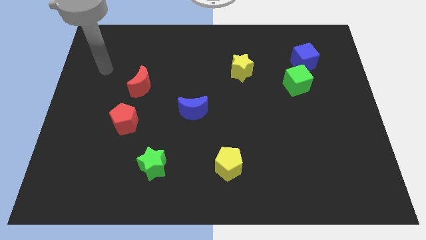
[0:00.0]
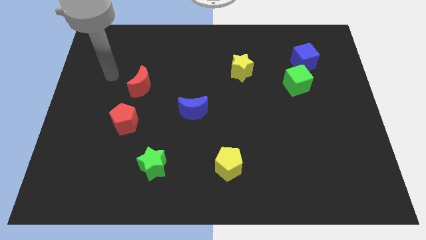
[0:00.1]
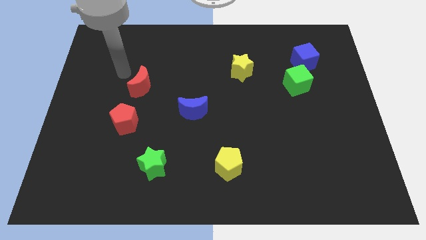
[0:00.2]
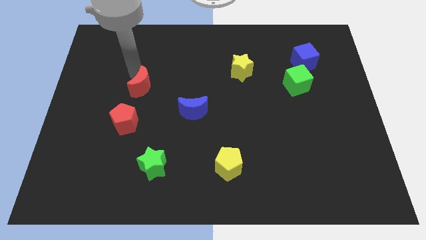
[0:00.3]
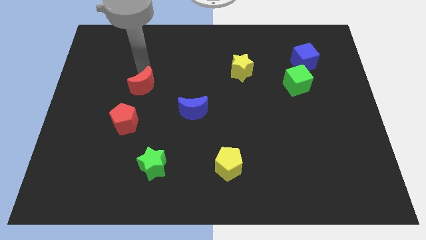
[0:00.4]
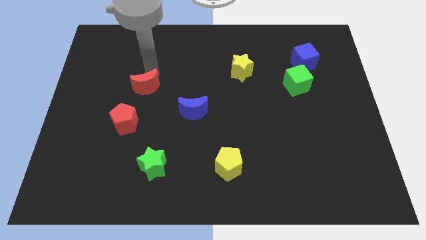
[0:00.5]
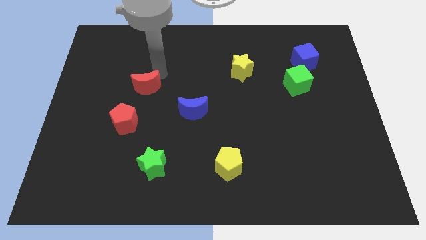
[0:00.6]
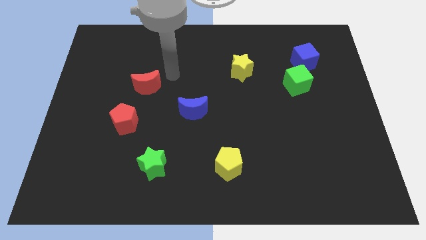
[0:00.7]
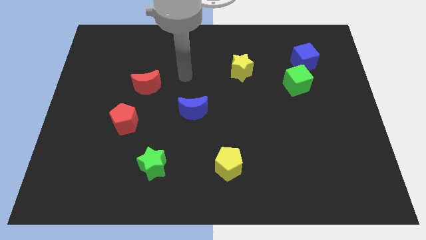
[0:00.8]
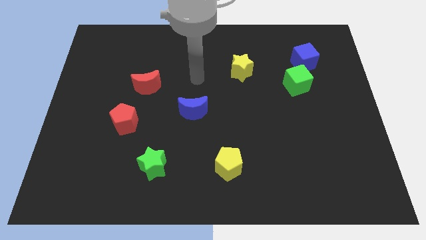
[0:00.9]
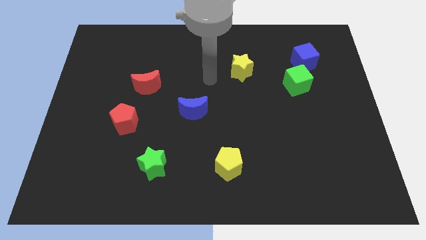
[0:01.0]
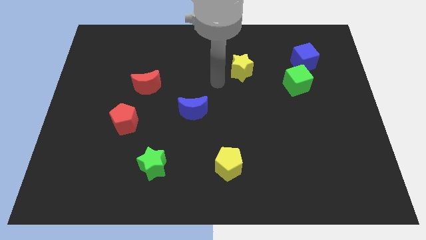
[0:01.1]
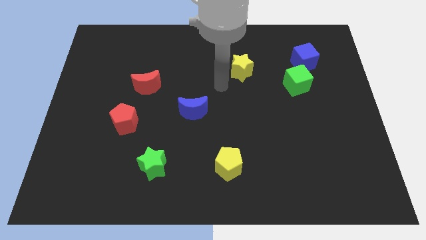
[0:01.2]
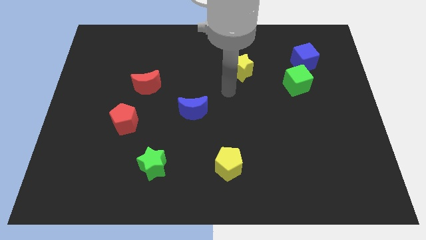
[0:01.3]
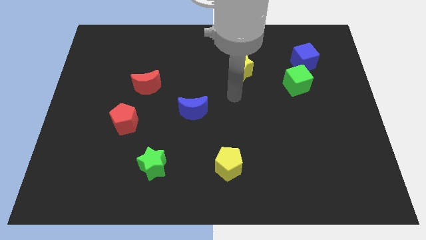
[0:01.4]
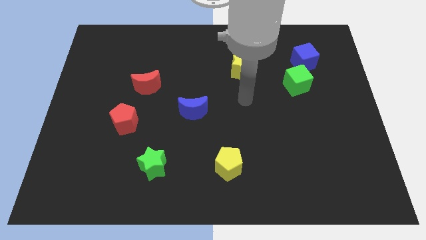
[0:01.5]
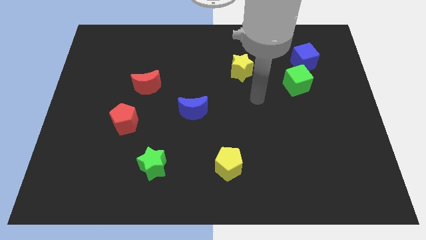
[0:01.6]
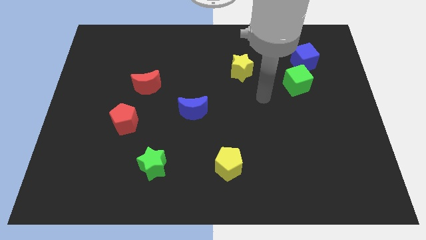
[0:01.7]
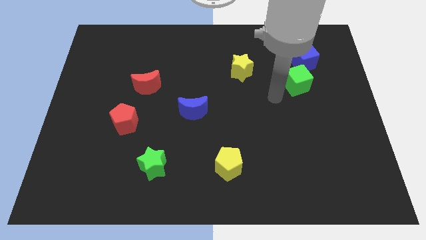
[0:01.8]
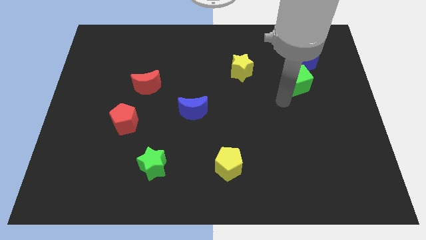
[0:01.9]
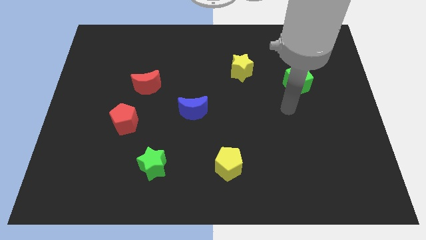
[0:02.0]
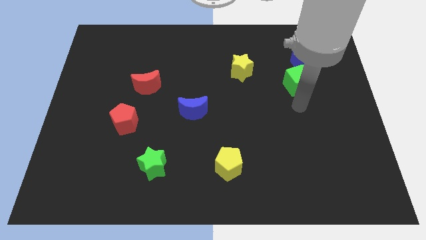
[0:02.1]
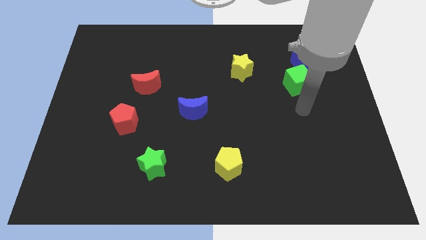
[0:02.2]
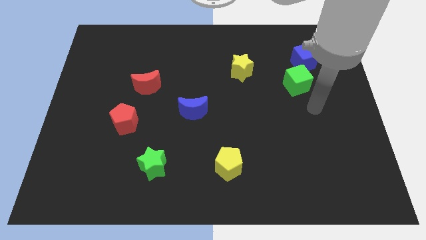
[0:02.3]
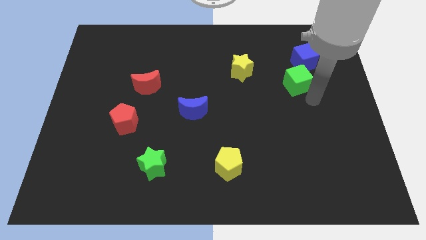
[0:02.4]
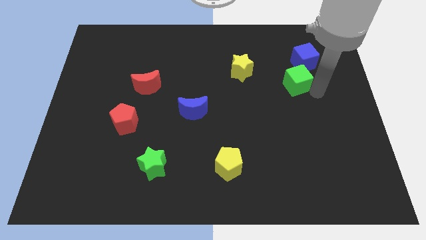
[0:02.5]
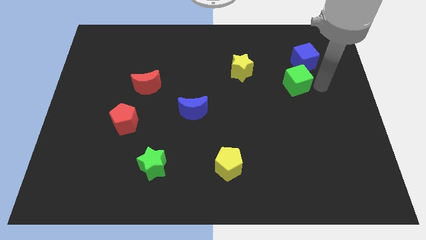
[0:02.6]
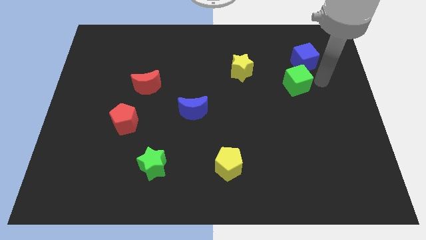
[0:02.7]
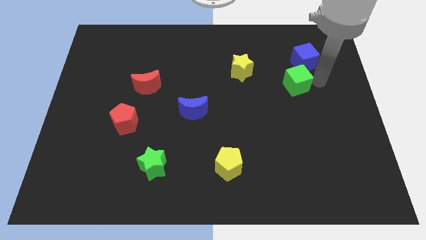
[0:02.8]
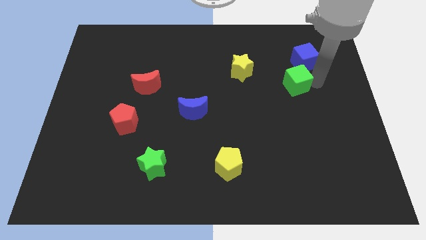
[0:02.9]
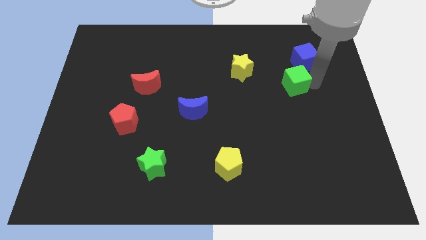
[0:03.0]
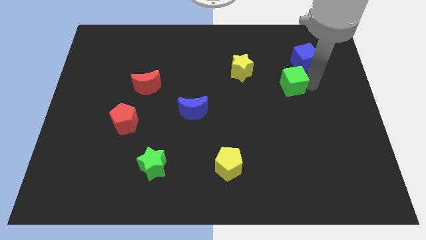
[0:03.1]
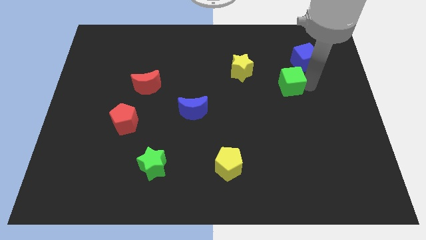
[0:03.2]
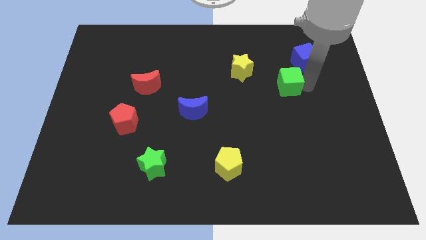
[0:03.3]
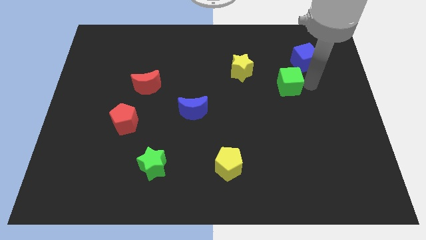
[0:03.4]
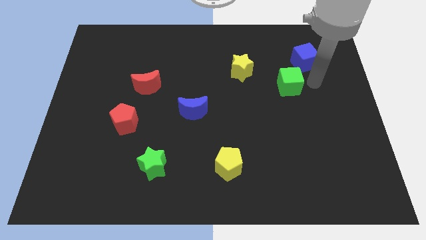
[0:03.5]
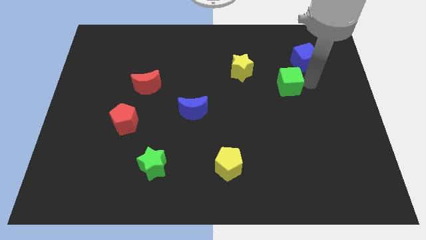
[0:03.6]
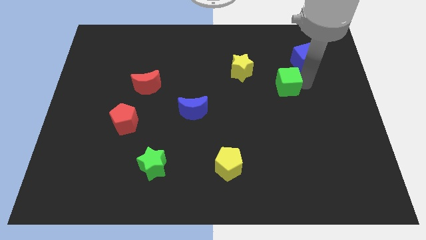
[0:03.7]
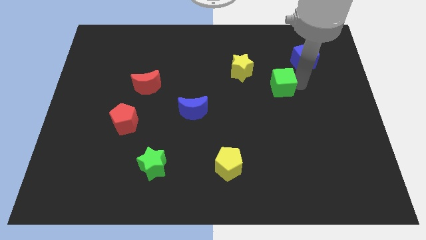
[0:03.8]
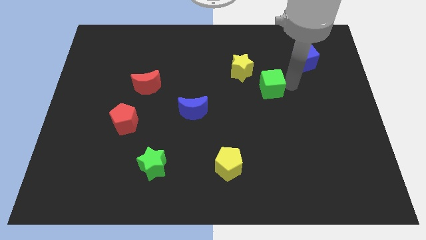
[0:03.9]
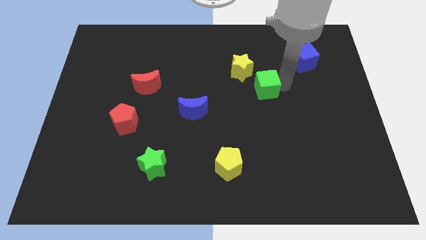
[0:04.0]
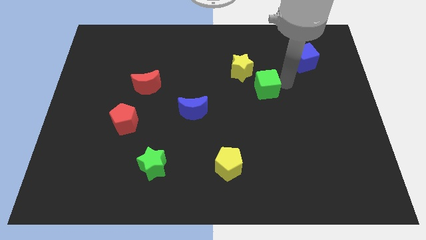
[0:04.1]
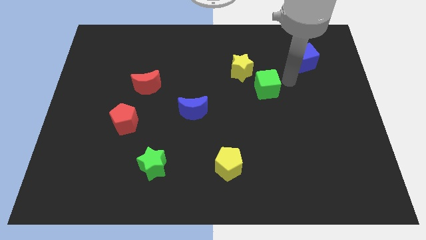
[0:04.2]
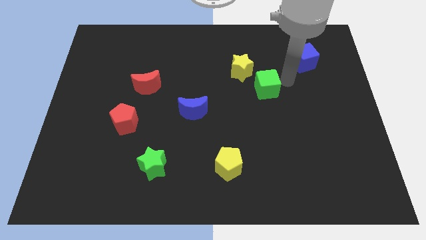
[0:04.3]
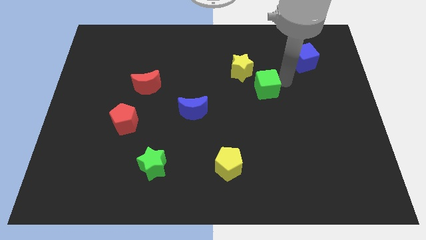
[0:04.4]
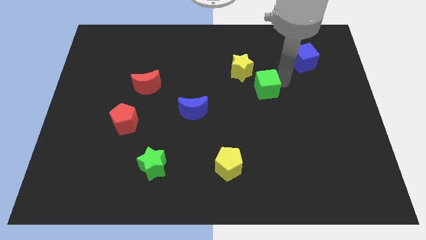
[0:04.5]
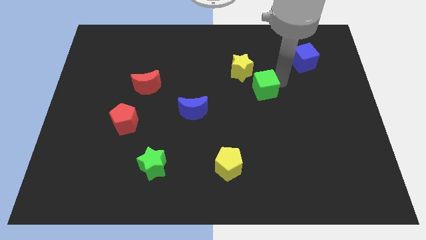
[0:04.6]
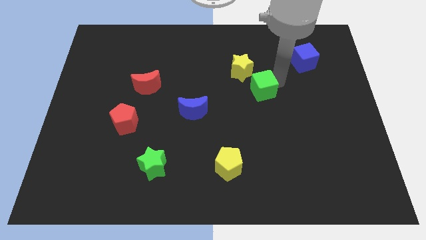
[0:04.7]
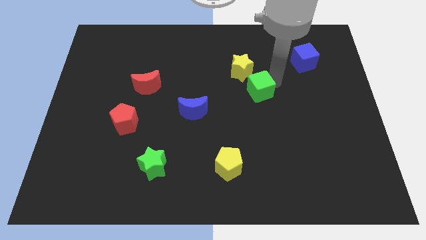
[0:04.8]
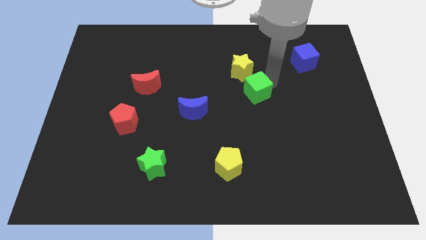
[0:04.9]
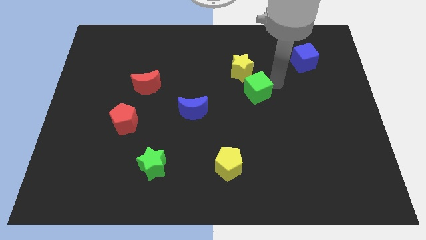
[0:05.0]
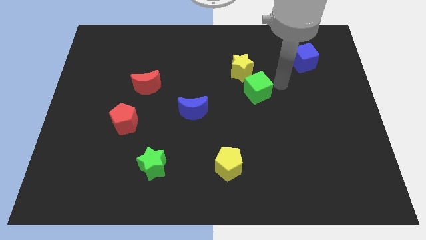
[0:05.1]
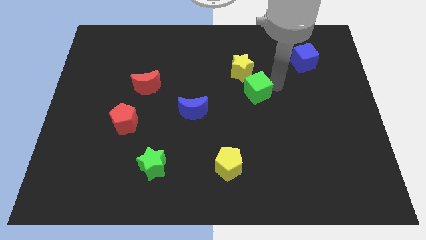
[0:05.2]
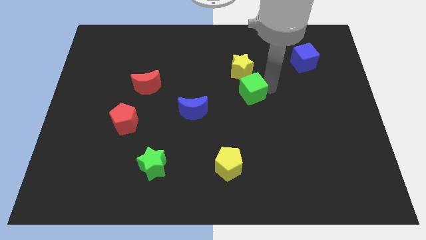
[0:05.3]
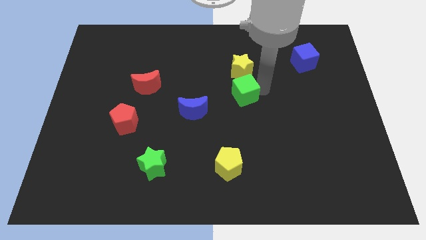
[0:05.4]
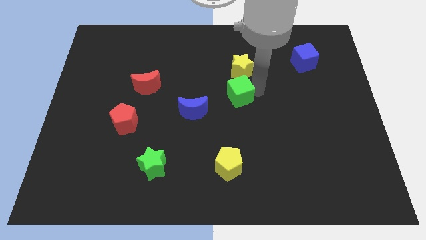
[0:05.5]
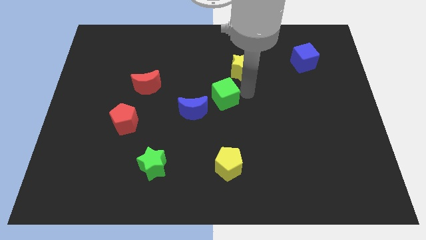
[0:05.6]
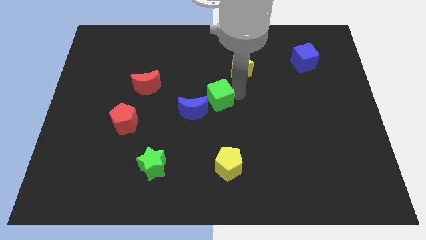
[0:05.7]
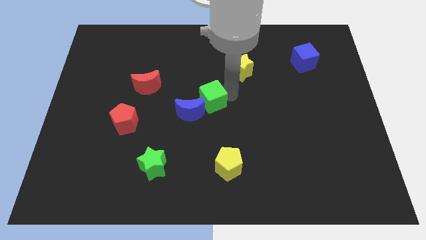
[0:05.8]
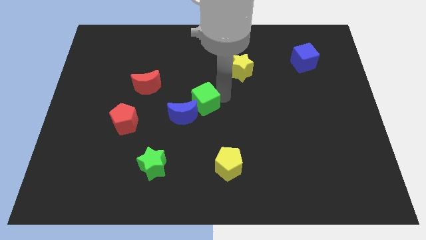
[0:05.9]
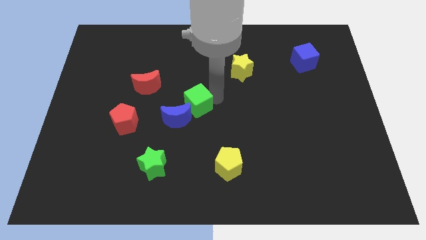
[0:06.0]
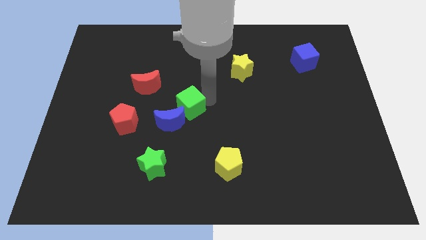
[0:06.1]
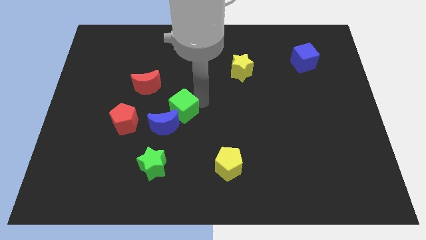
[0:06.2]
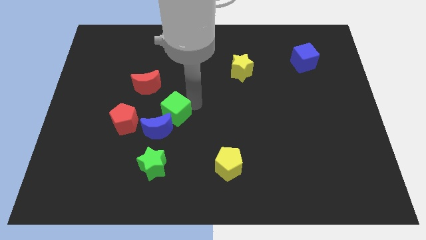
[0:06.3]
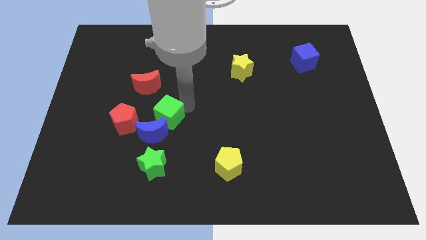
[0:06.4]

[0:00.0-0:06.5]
push the green cube to the blue moon
